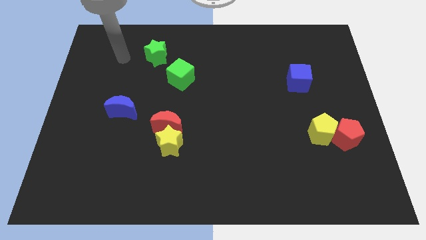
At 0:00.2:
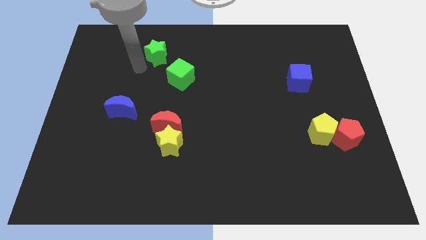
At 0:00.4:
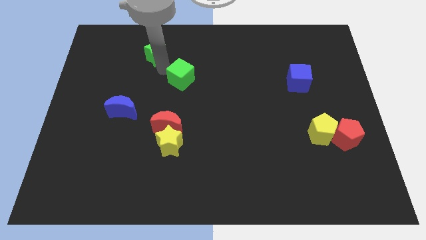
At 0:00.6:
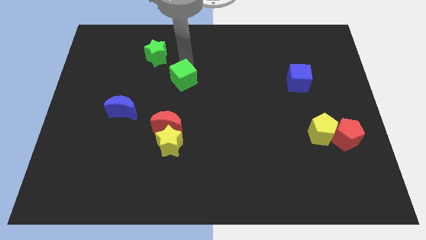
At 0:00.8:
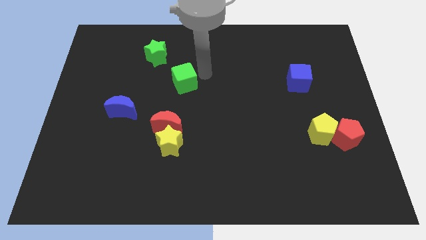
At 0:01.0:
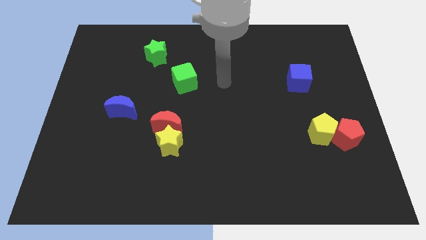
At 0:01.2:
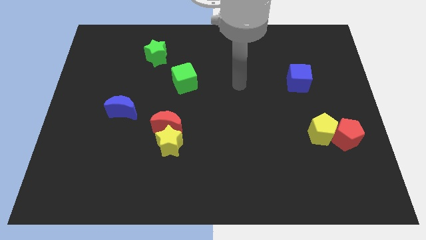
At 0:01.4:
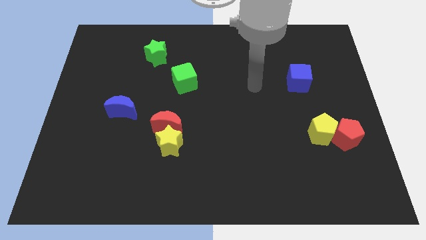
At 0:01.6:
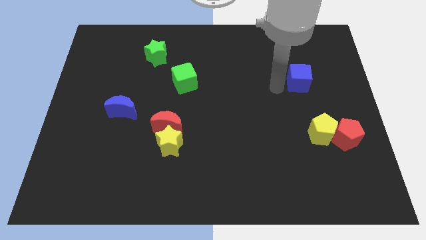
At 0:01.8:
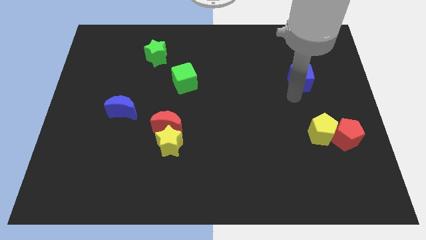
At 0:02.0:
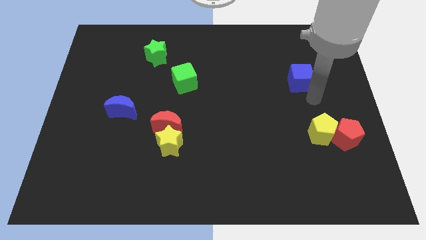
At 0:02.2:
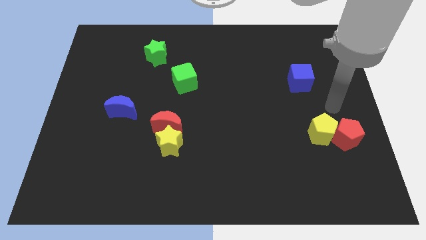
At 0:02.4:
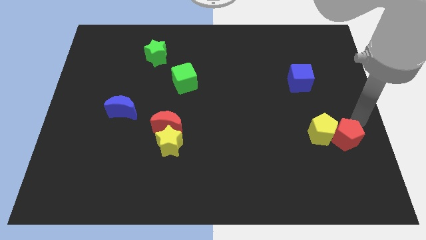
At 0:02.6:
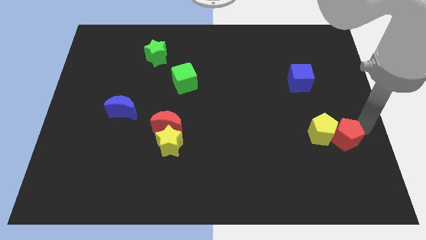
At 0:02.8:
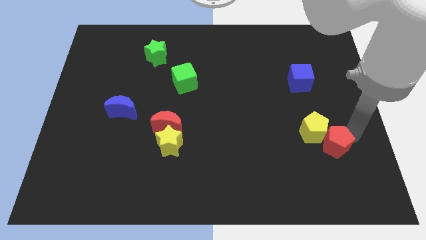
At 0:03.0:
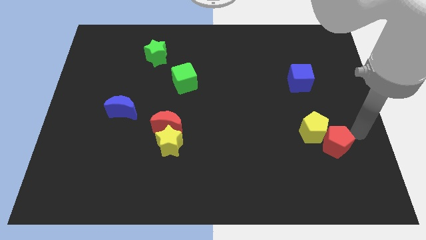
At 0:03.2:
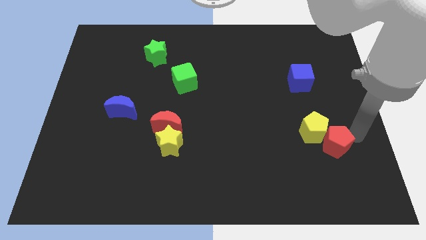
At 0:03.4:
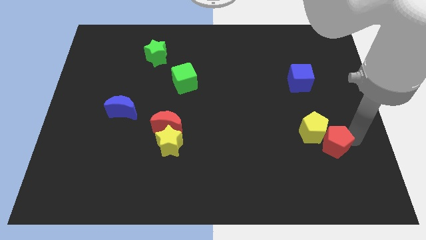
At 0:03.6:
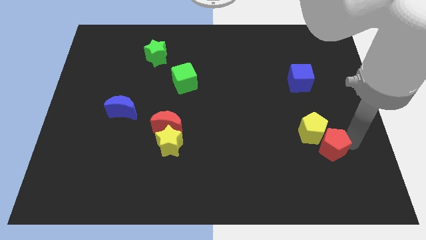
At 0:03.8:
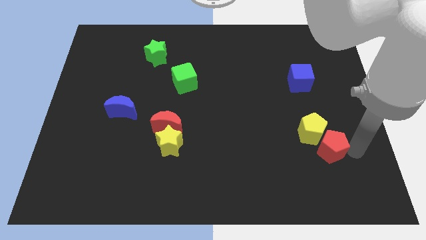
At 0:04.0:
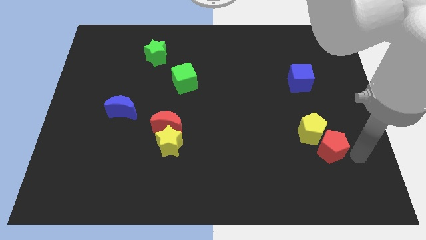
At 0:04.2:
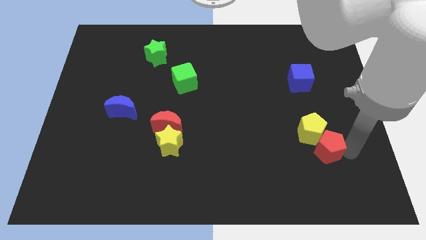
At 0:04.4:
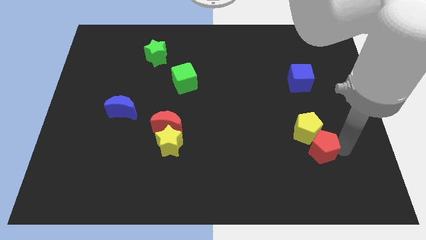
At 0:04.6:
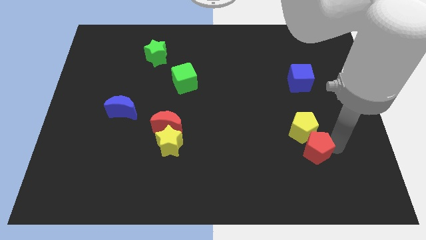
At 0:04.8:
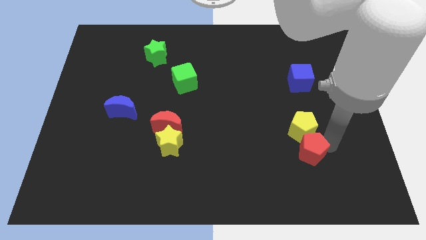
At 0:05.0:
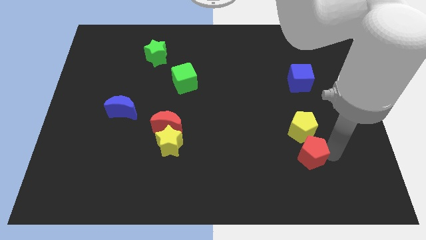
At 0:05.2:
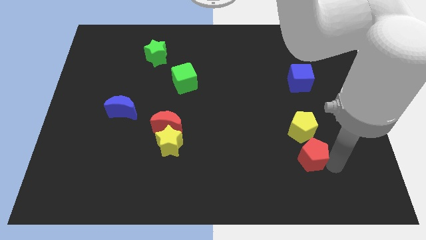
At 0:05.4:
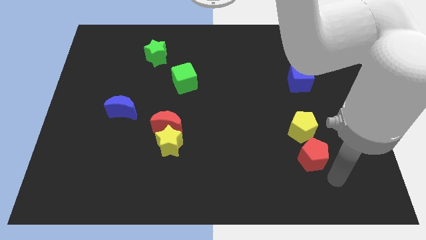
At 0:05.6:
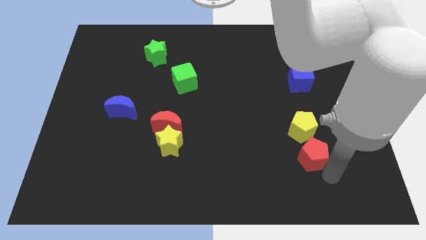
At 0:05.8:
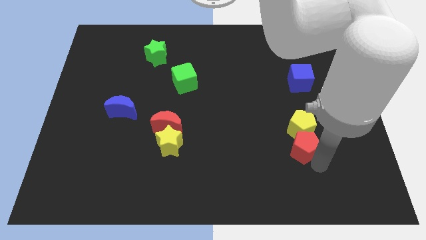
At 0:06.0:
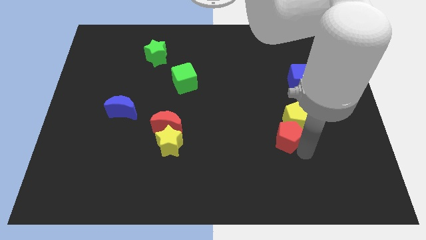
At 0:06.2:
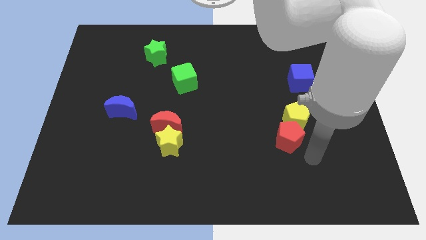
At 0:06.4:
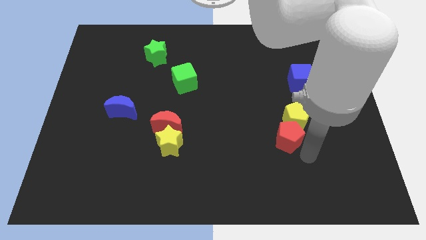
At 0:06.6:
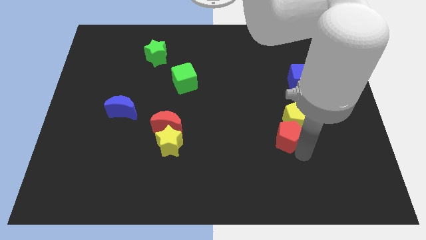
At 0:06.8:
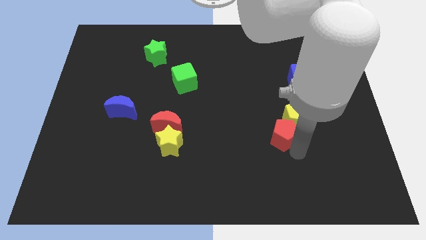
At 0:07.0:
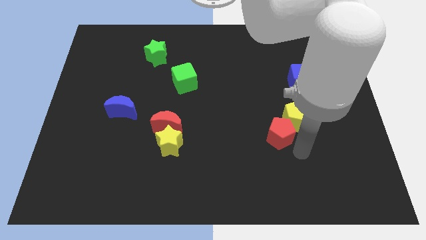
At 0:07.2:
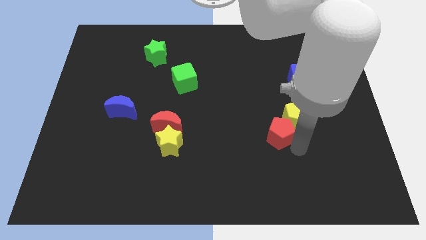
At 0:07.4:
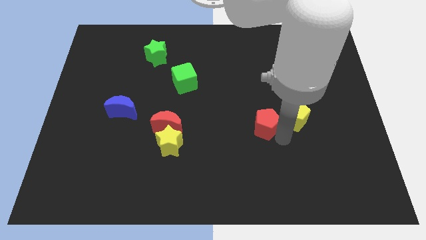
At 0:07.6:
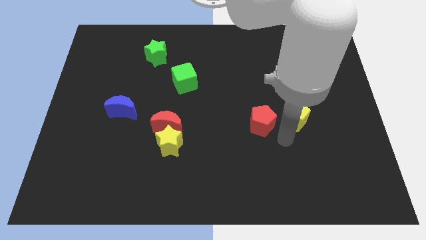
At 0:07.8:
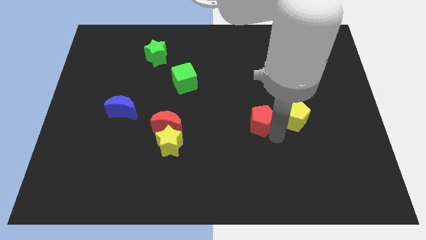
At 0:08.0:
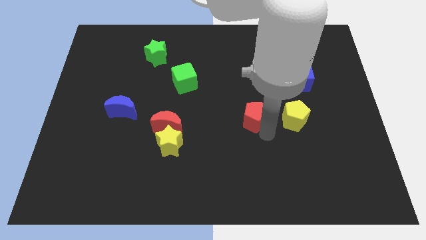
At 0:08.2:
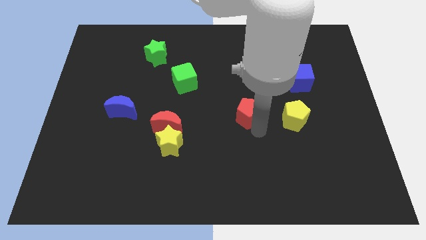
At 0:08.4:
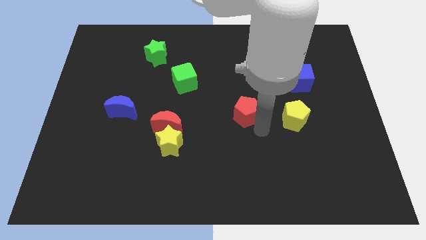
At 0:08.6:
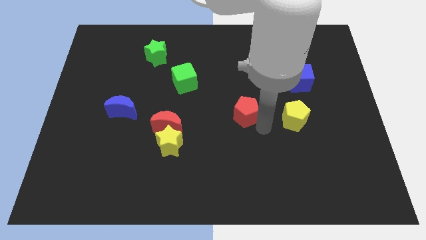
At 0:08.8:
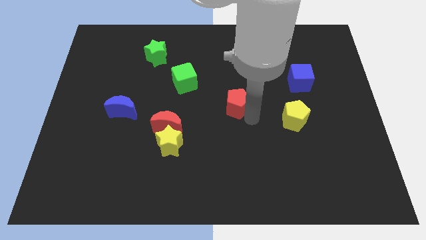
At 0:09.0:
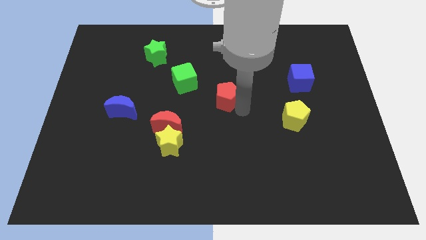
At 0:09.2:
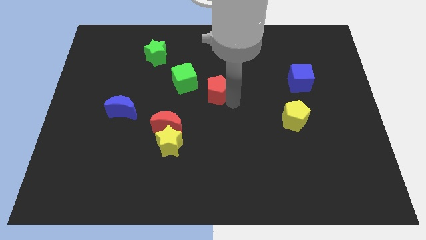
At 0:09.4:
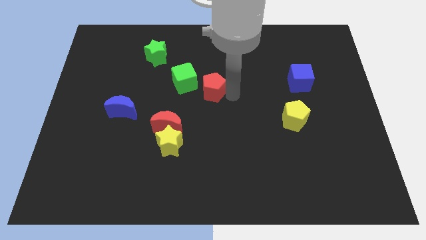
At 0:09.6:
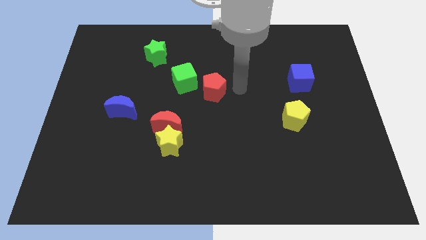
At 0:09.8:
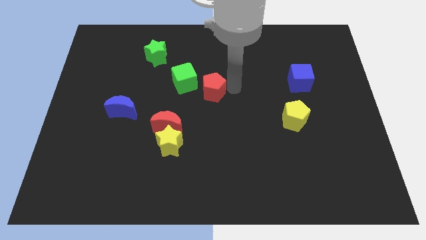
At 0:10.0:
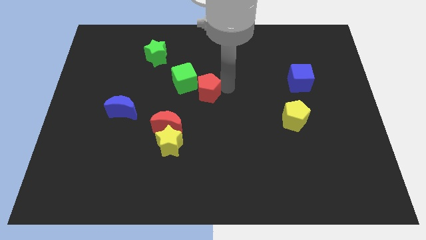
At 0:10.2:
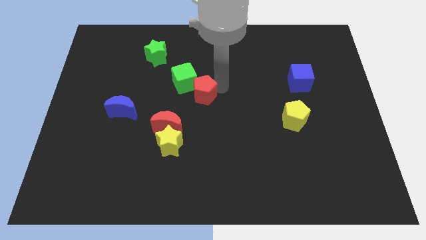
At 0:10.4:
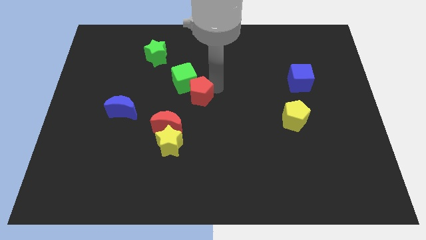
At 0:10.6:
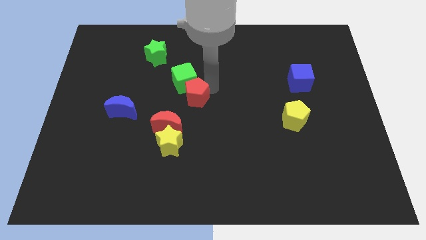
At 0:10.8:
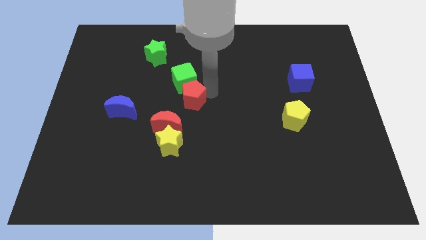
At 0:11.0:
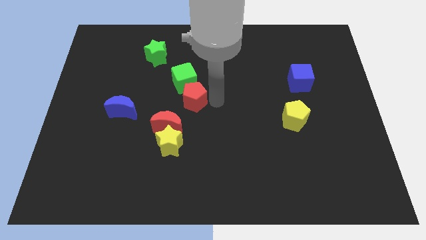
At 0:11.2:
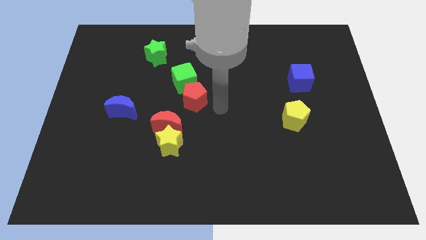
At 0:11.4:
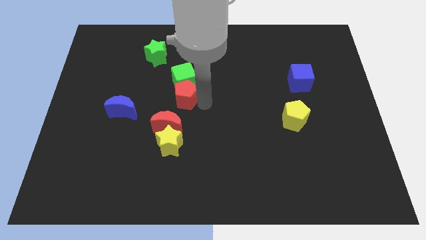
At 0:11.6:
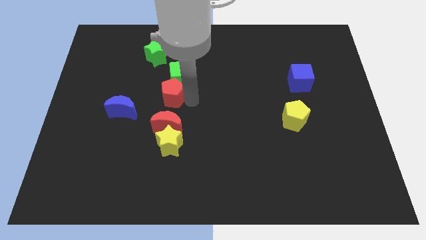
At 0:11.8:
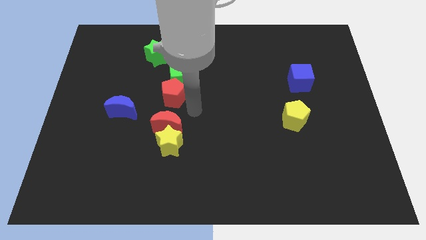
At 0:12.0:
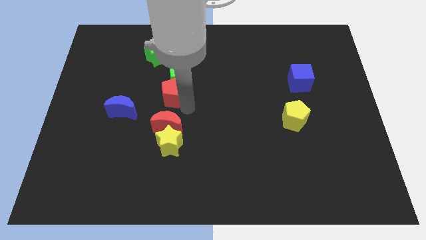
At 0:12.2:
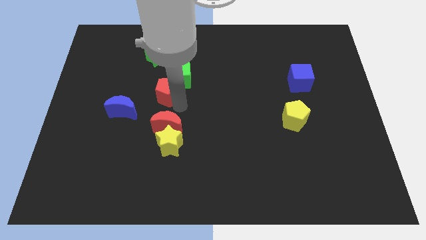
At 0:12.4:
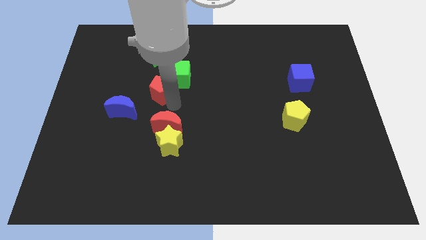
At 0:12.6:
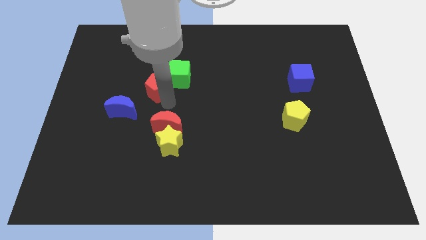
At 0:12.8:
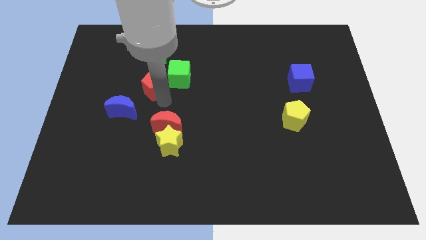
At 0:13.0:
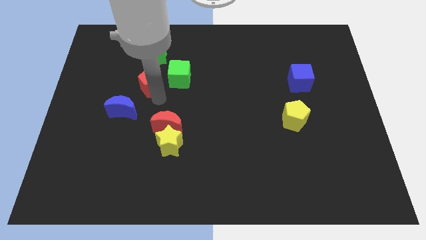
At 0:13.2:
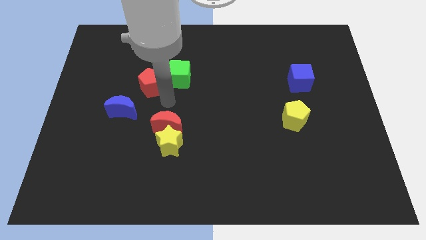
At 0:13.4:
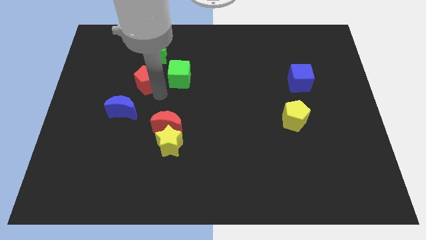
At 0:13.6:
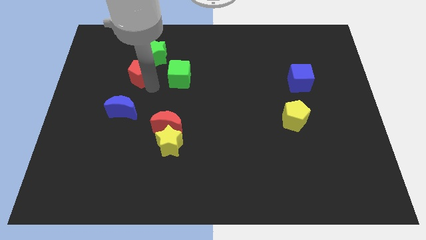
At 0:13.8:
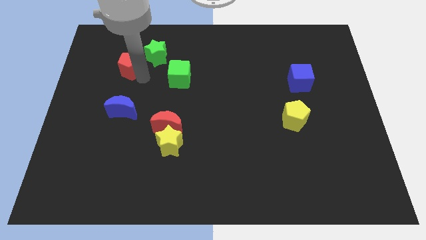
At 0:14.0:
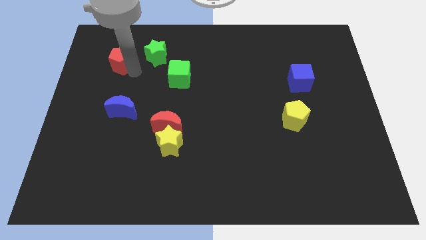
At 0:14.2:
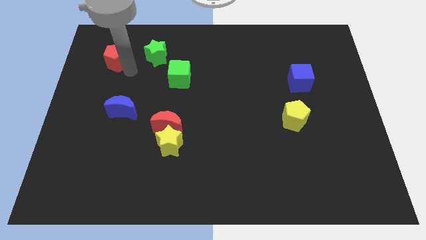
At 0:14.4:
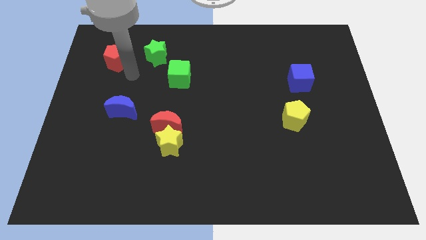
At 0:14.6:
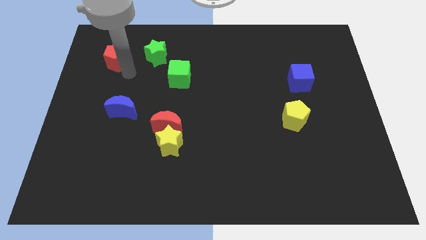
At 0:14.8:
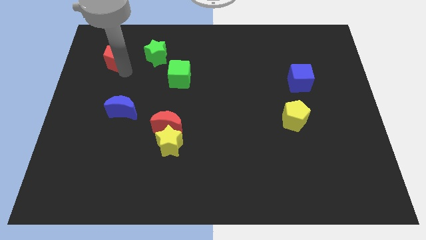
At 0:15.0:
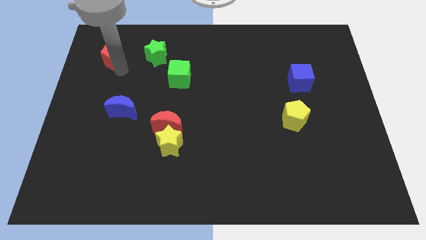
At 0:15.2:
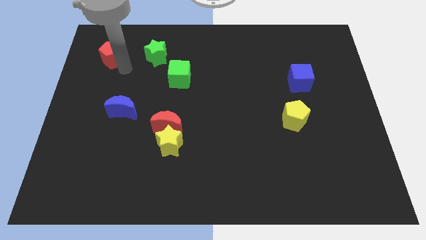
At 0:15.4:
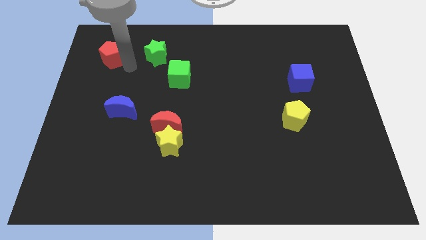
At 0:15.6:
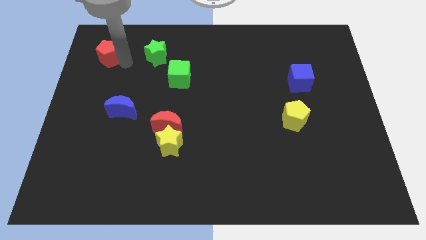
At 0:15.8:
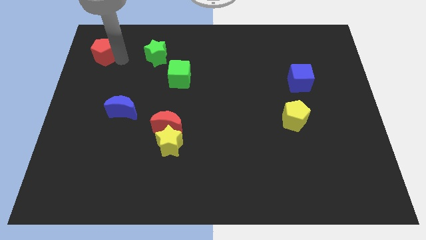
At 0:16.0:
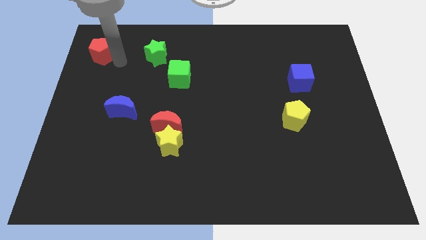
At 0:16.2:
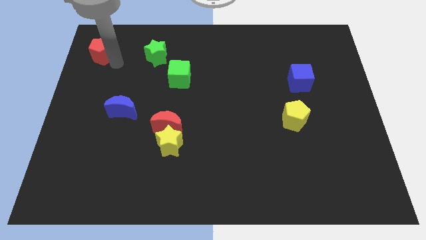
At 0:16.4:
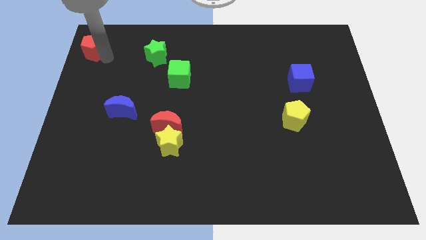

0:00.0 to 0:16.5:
slide the red pentagon to the upper left corner
